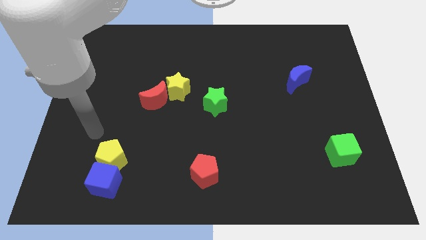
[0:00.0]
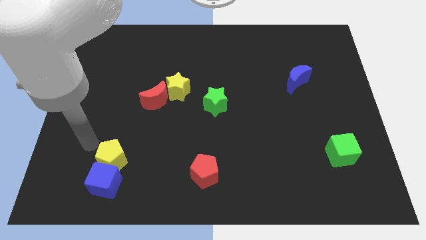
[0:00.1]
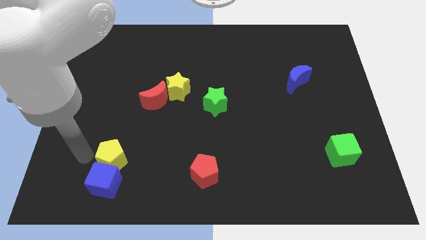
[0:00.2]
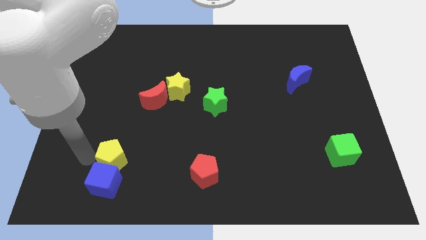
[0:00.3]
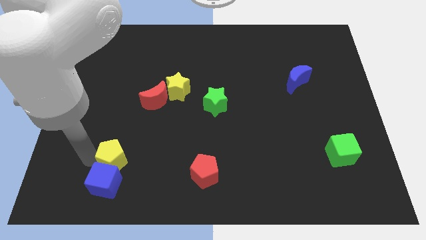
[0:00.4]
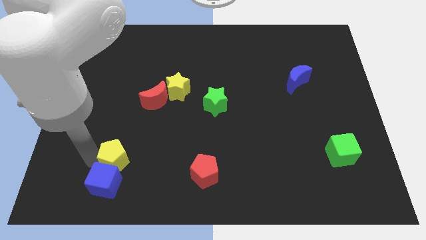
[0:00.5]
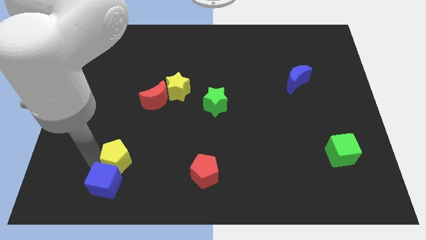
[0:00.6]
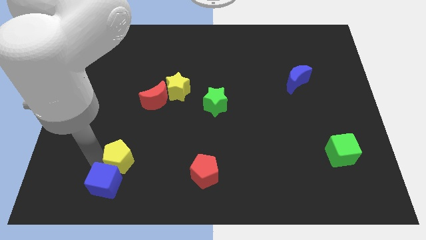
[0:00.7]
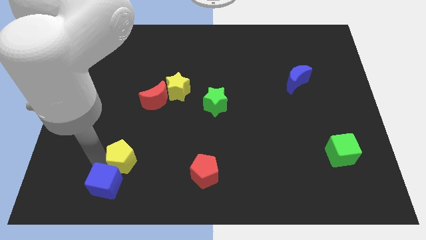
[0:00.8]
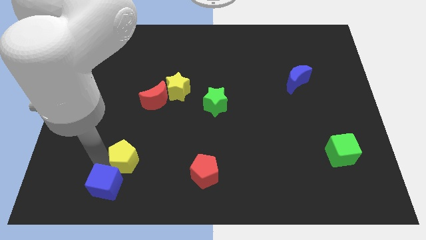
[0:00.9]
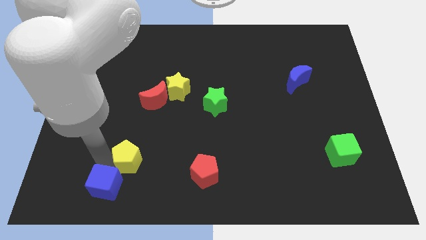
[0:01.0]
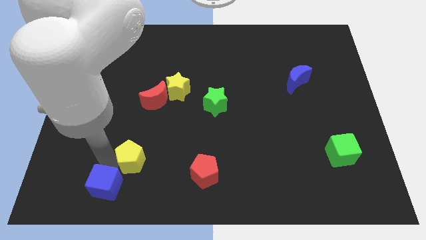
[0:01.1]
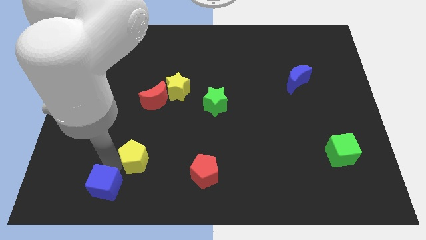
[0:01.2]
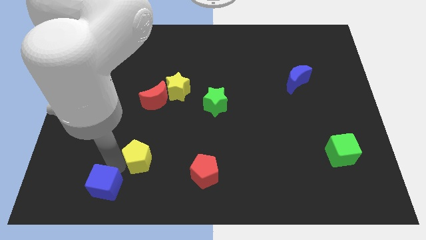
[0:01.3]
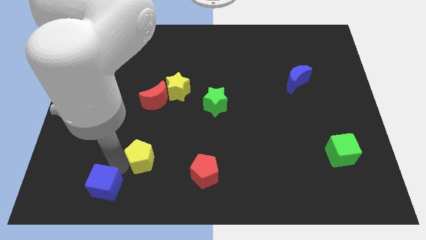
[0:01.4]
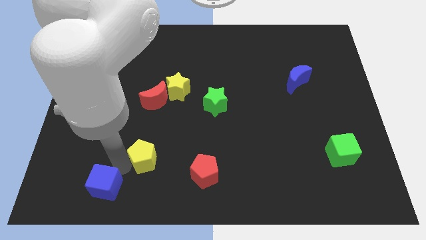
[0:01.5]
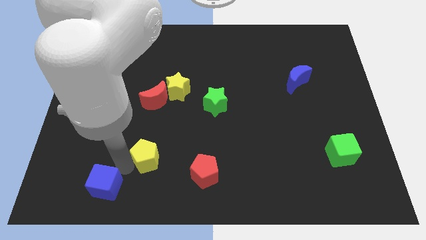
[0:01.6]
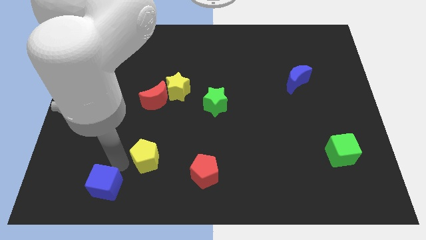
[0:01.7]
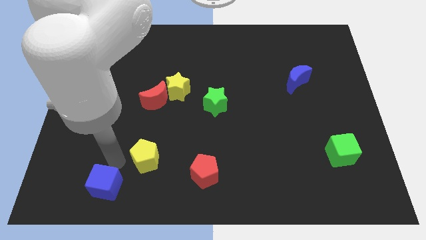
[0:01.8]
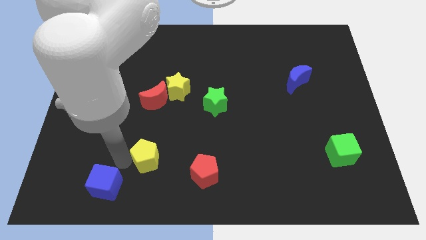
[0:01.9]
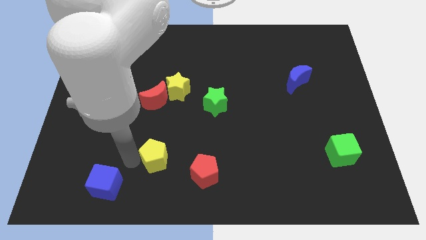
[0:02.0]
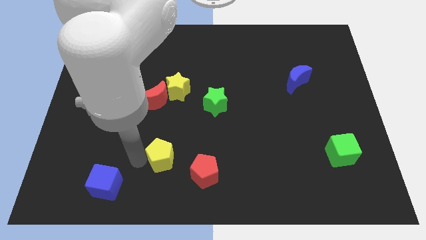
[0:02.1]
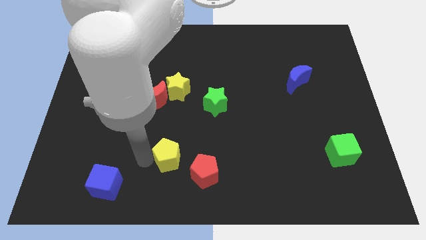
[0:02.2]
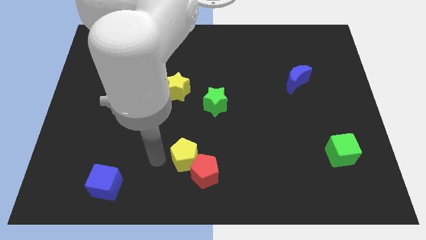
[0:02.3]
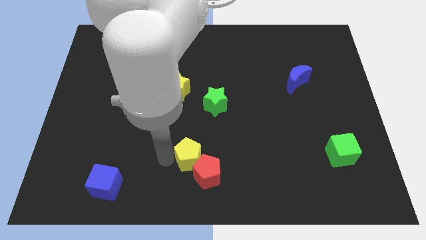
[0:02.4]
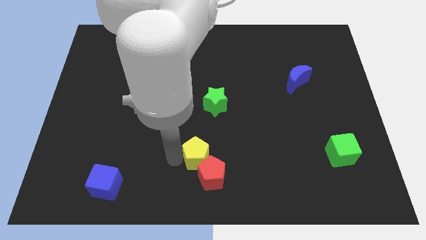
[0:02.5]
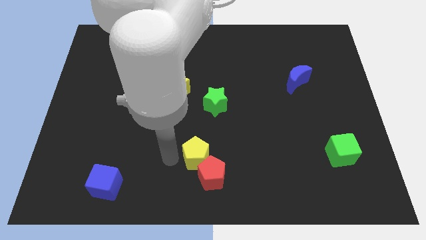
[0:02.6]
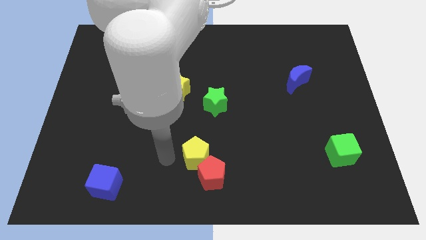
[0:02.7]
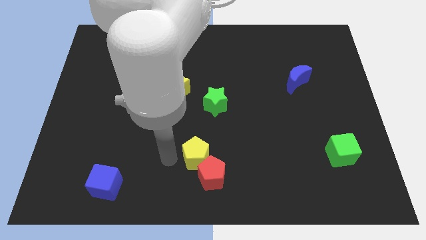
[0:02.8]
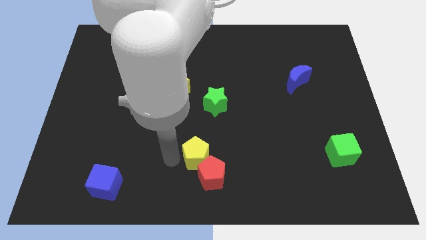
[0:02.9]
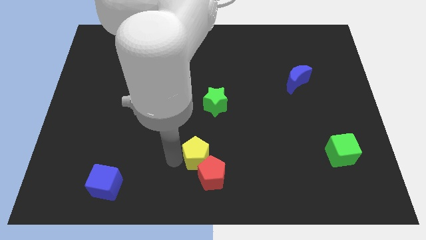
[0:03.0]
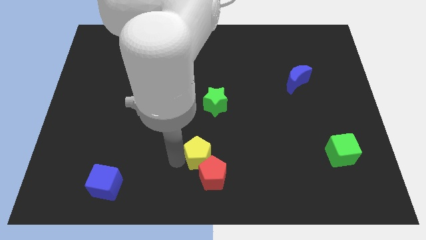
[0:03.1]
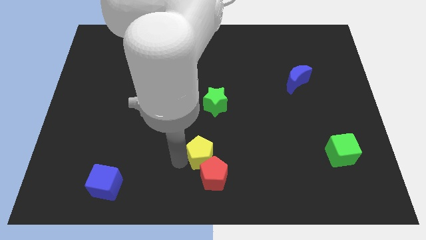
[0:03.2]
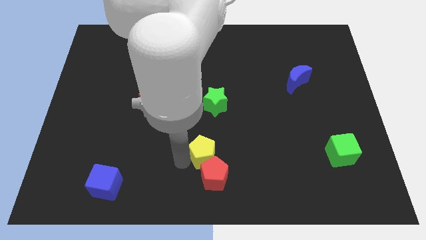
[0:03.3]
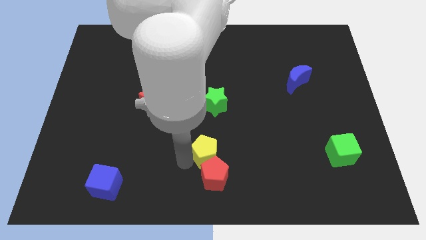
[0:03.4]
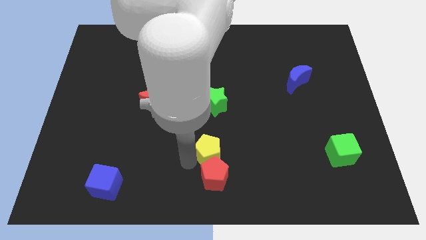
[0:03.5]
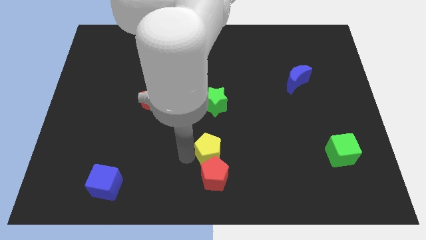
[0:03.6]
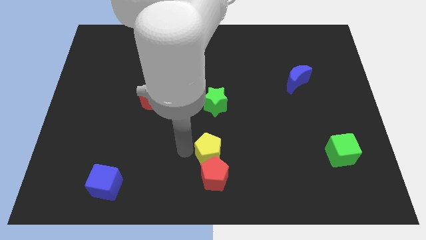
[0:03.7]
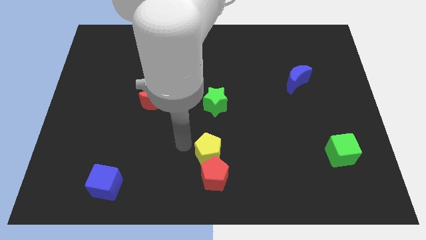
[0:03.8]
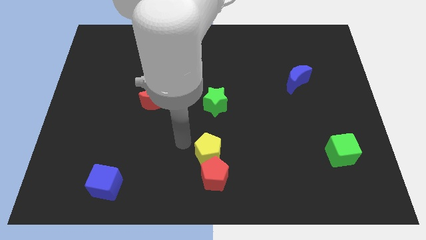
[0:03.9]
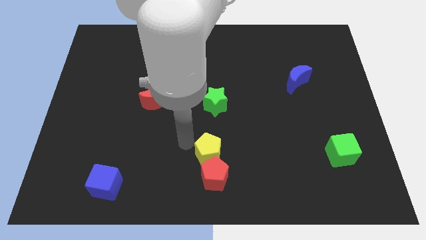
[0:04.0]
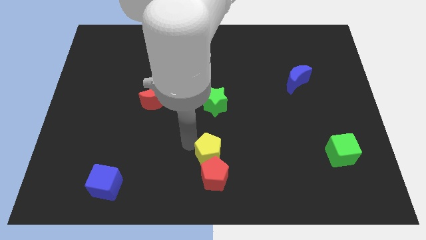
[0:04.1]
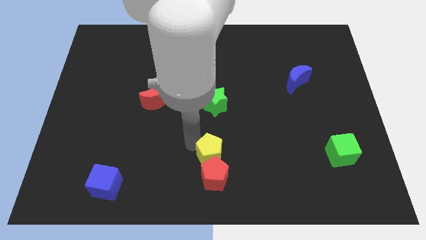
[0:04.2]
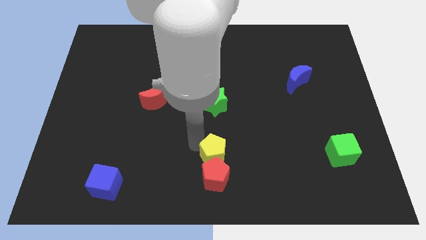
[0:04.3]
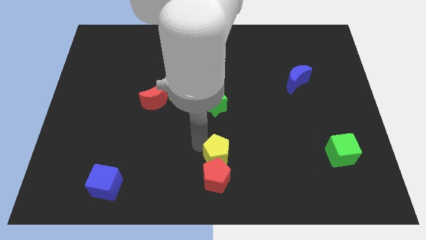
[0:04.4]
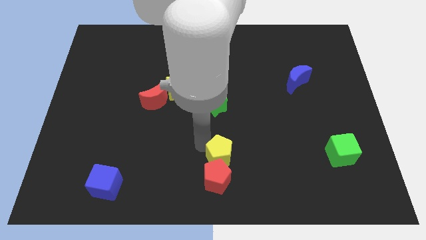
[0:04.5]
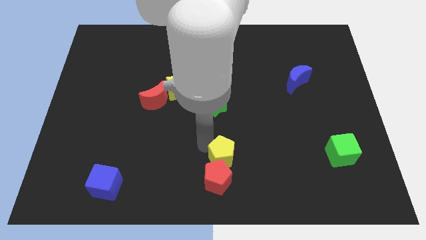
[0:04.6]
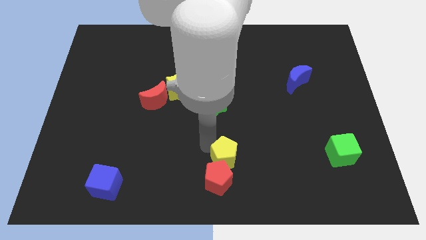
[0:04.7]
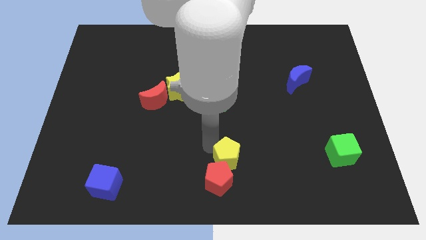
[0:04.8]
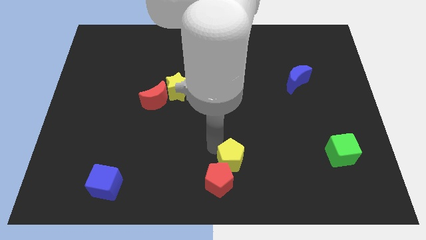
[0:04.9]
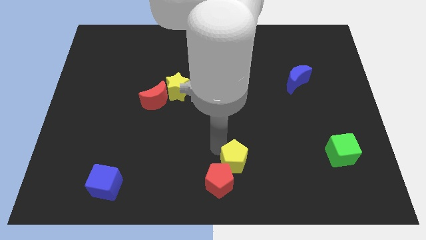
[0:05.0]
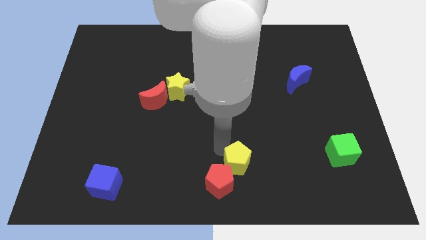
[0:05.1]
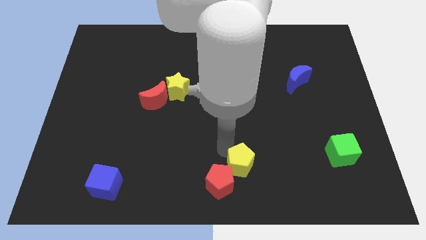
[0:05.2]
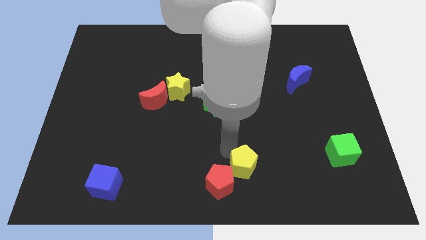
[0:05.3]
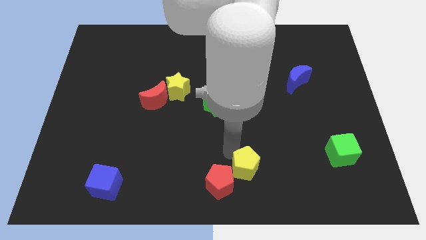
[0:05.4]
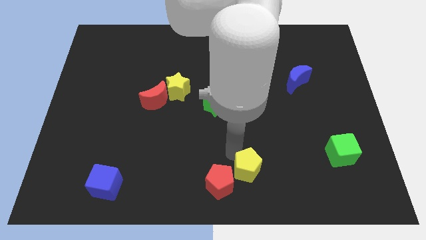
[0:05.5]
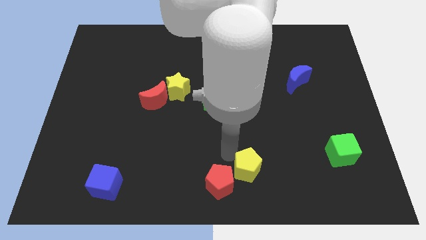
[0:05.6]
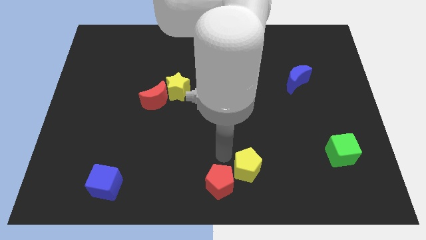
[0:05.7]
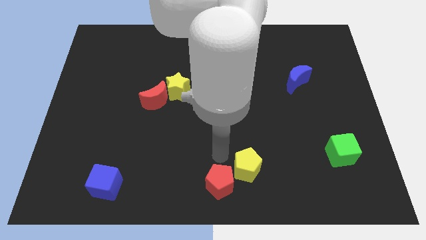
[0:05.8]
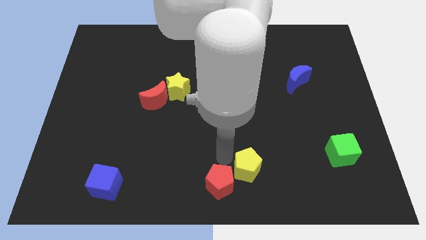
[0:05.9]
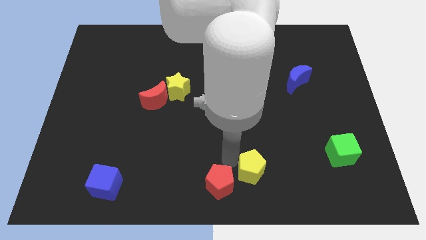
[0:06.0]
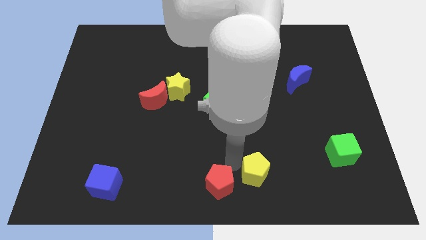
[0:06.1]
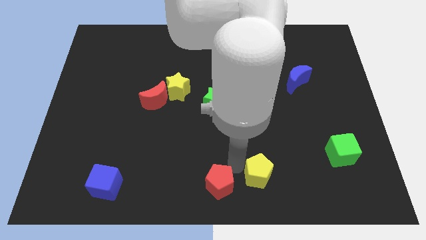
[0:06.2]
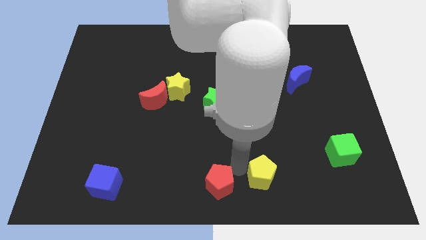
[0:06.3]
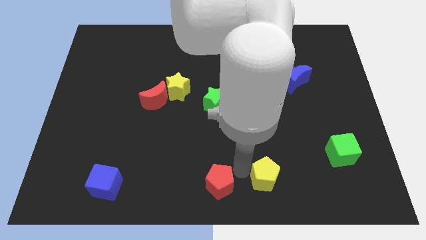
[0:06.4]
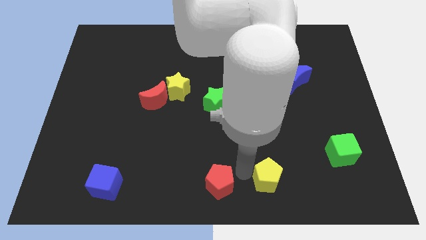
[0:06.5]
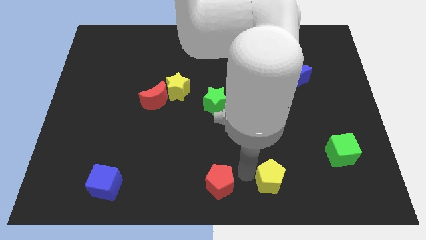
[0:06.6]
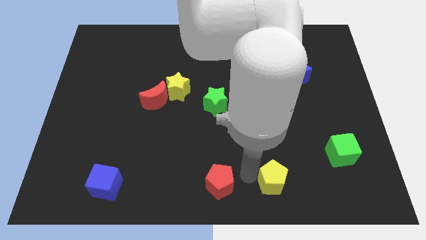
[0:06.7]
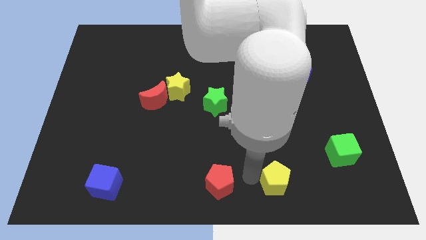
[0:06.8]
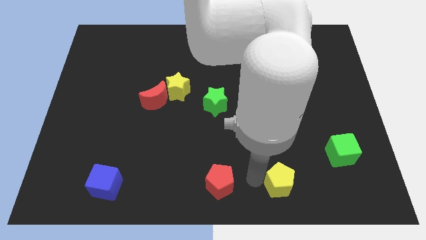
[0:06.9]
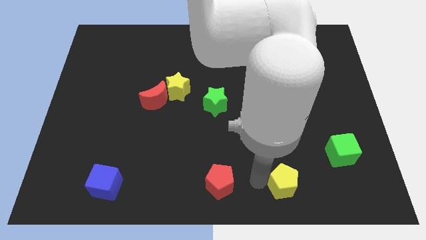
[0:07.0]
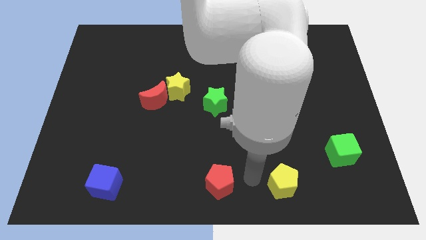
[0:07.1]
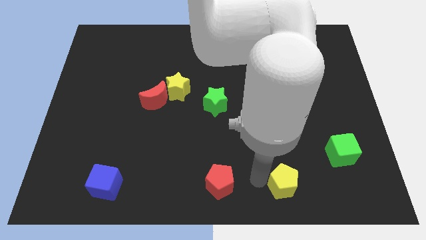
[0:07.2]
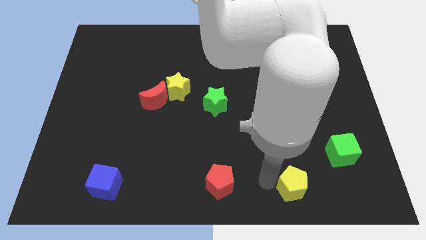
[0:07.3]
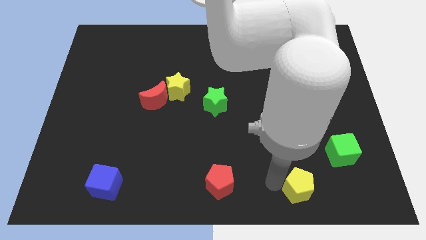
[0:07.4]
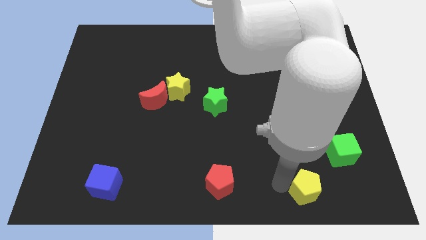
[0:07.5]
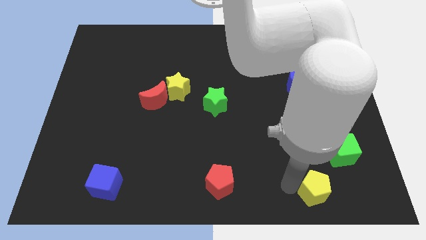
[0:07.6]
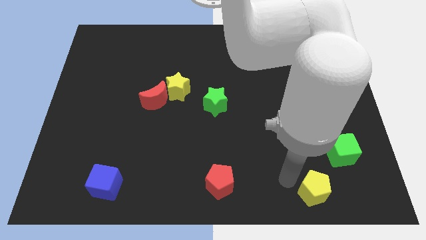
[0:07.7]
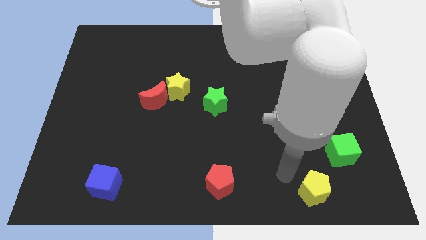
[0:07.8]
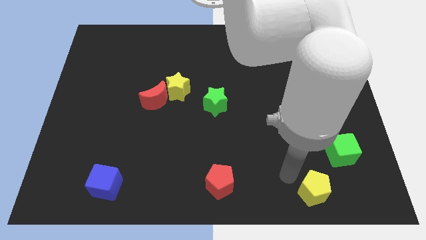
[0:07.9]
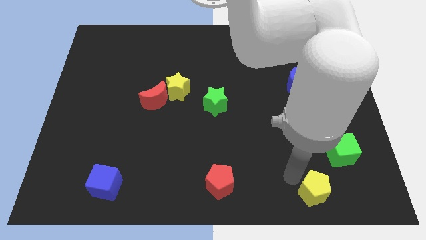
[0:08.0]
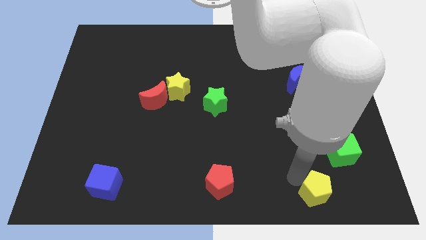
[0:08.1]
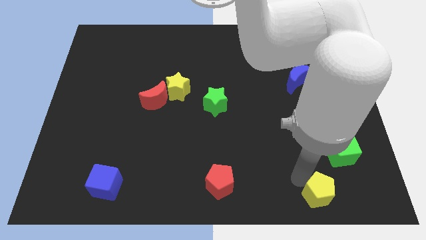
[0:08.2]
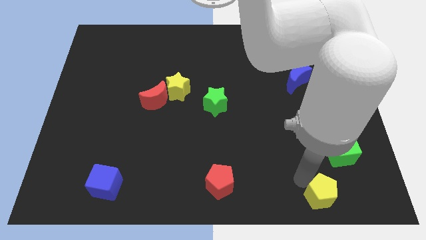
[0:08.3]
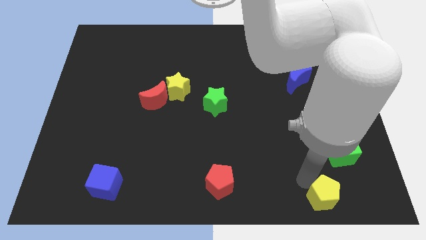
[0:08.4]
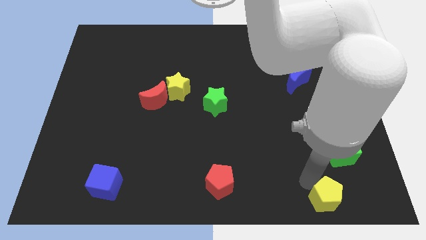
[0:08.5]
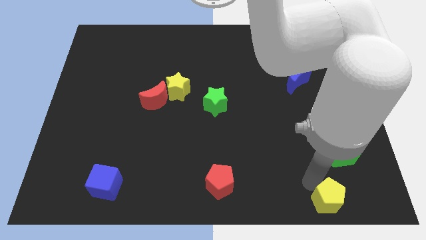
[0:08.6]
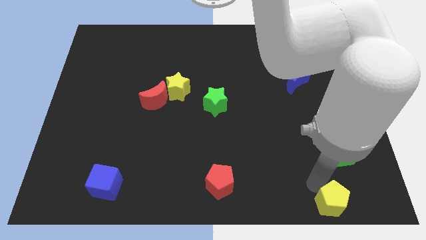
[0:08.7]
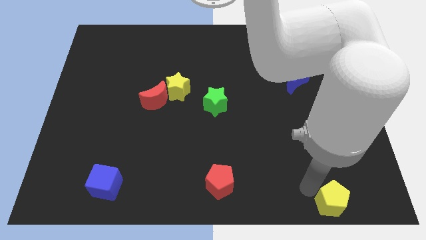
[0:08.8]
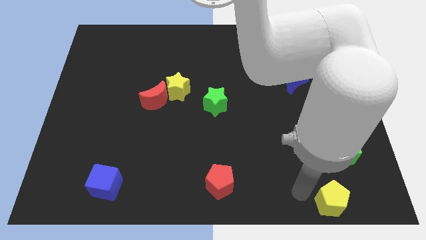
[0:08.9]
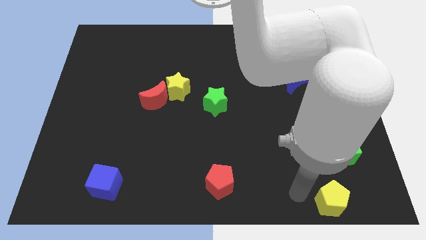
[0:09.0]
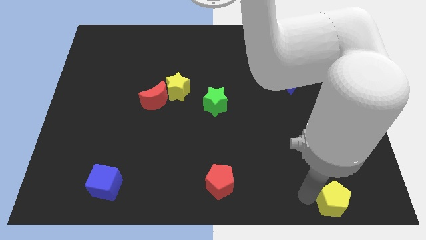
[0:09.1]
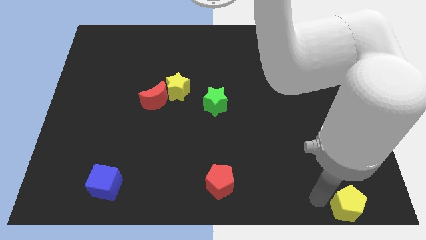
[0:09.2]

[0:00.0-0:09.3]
move the yellow pentagon to the bottom right of the board
